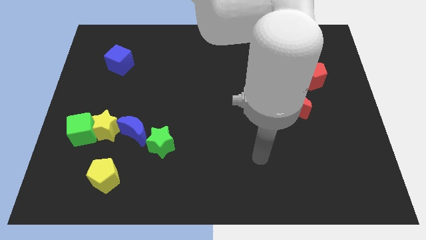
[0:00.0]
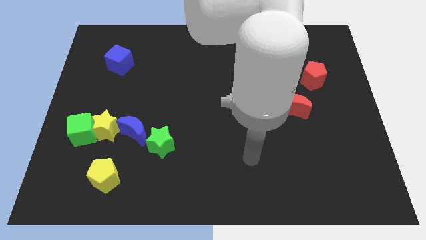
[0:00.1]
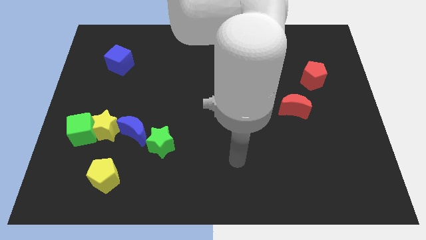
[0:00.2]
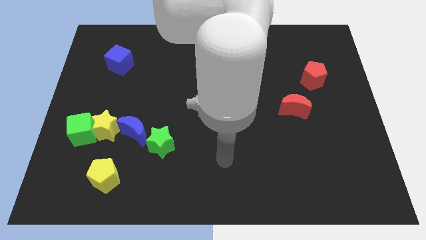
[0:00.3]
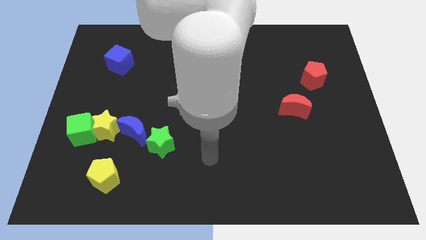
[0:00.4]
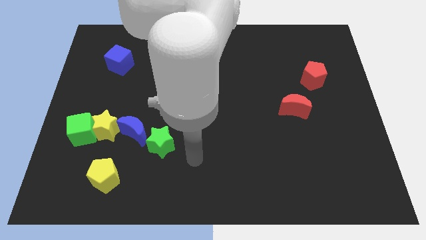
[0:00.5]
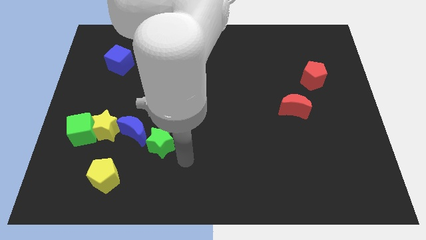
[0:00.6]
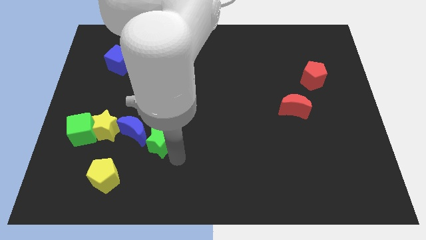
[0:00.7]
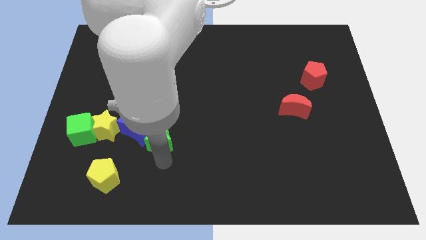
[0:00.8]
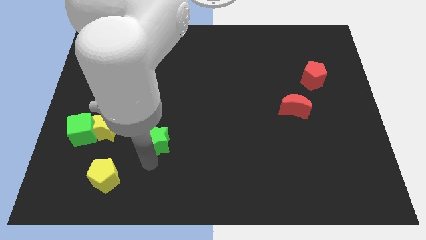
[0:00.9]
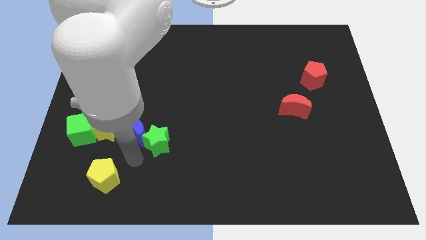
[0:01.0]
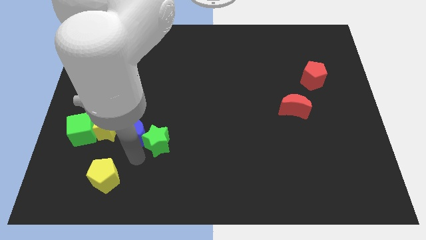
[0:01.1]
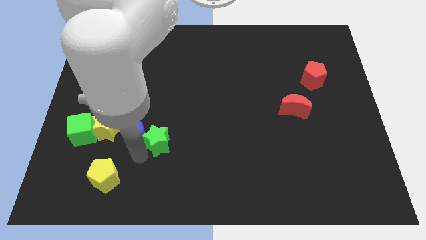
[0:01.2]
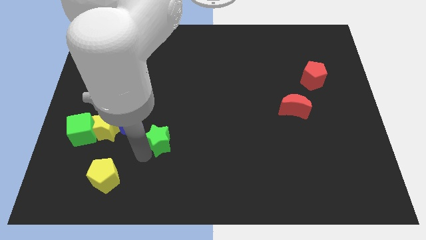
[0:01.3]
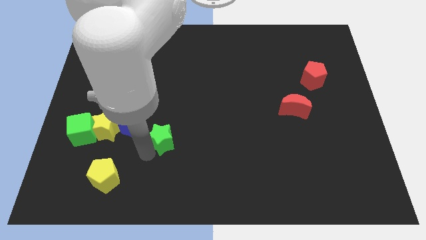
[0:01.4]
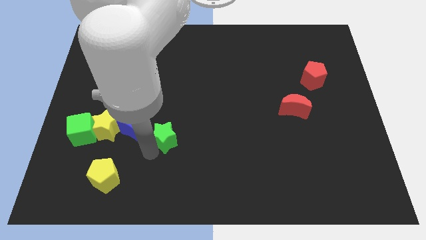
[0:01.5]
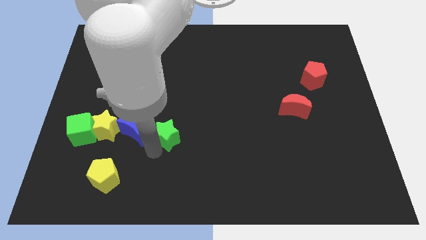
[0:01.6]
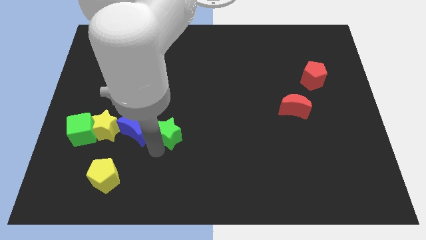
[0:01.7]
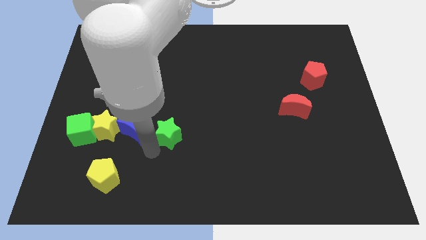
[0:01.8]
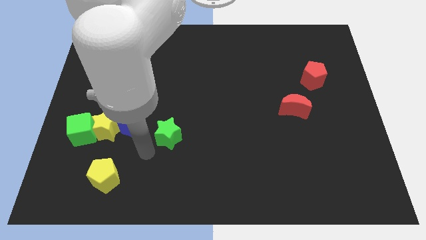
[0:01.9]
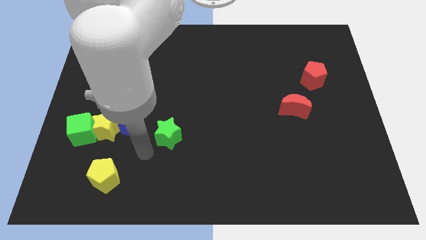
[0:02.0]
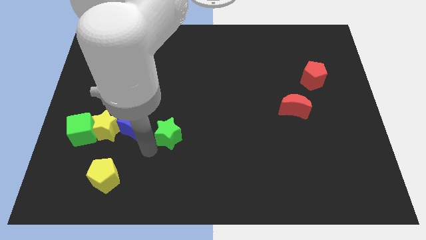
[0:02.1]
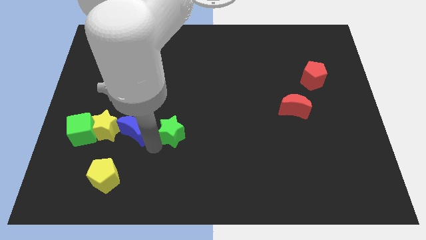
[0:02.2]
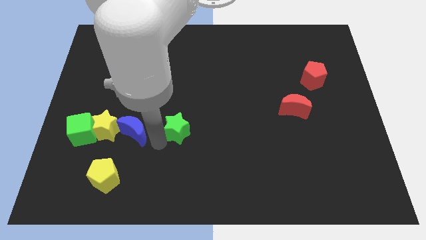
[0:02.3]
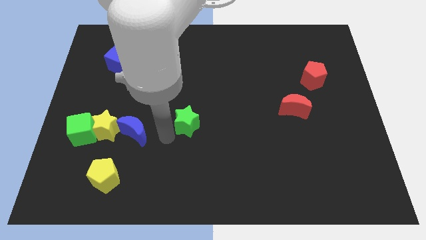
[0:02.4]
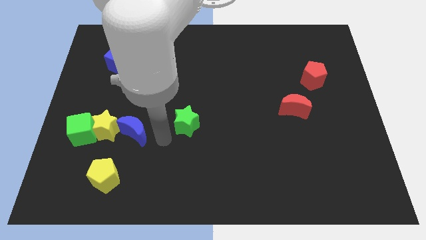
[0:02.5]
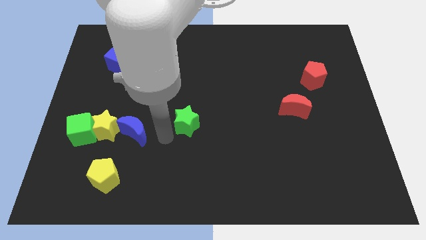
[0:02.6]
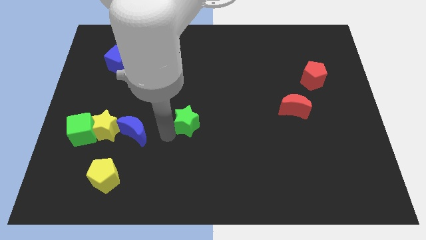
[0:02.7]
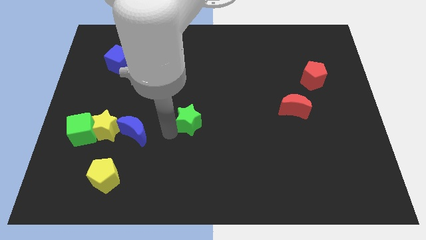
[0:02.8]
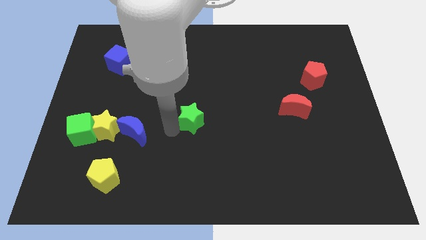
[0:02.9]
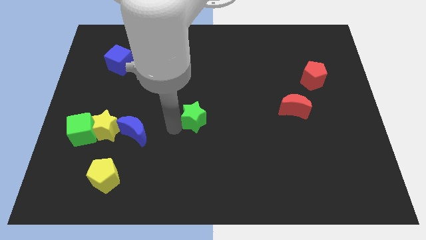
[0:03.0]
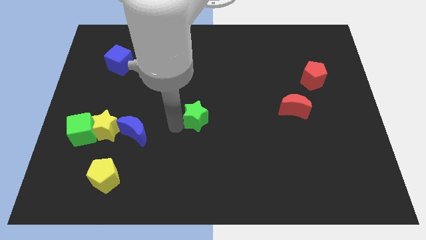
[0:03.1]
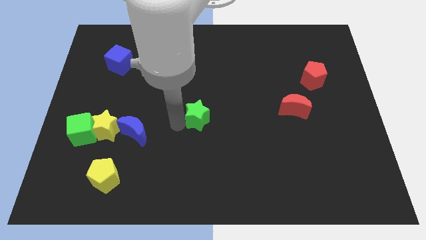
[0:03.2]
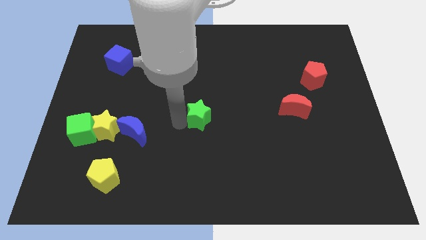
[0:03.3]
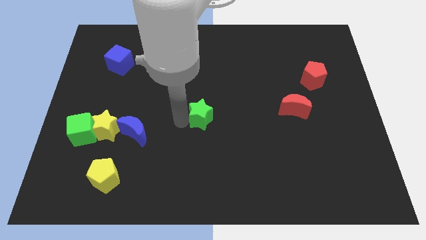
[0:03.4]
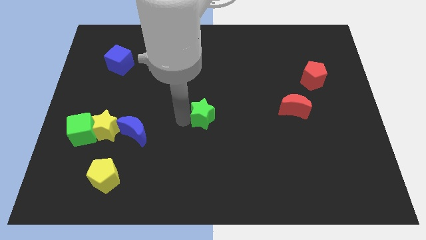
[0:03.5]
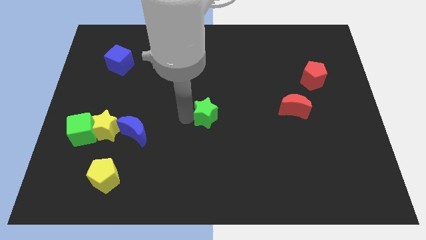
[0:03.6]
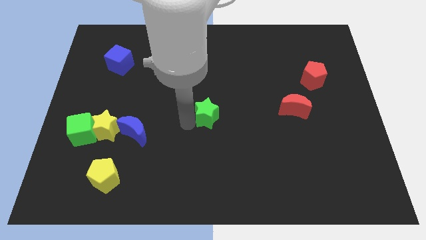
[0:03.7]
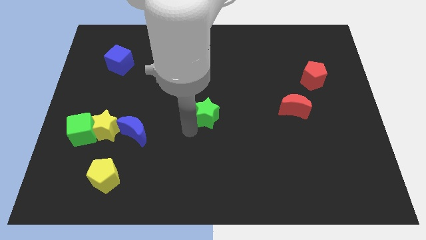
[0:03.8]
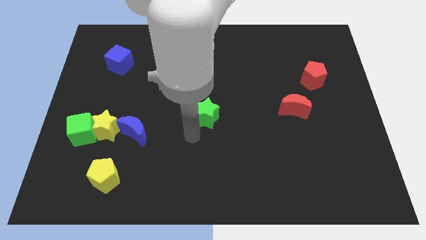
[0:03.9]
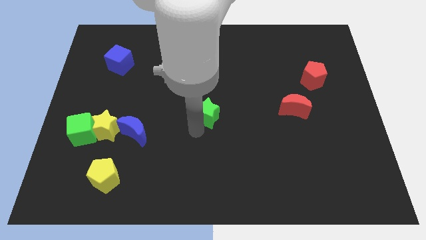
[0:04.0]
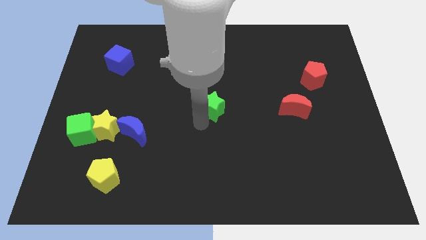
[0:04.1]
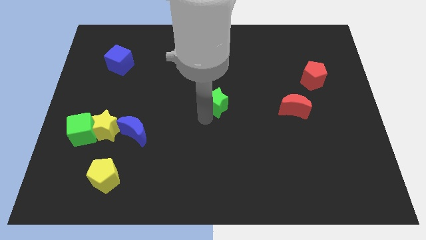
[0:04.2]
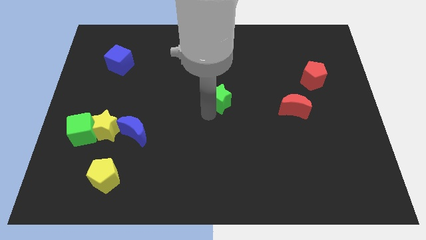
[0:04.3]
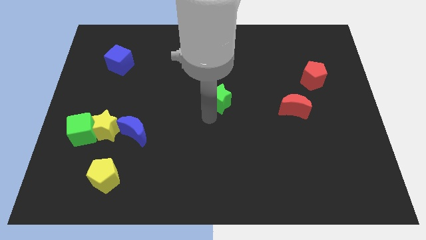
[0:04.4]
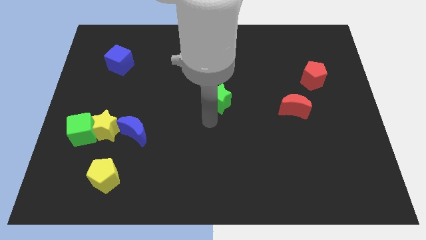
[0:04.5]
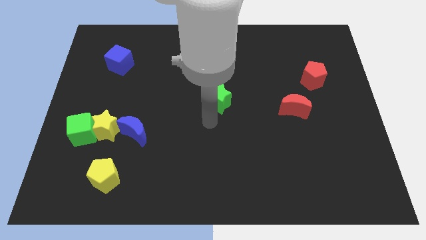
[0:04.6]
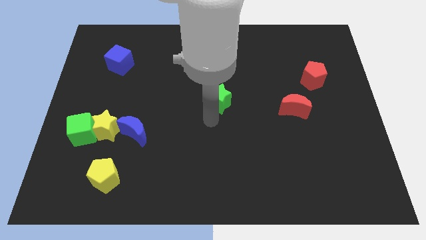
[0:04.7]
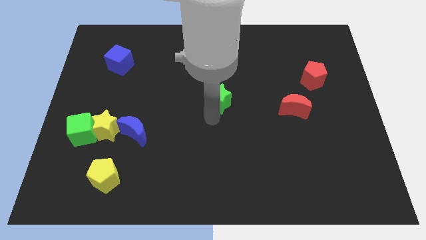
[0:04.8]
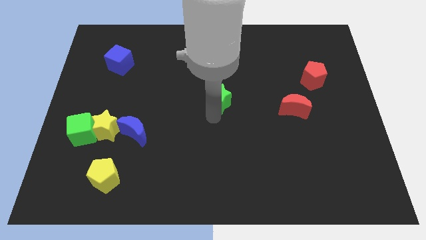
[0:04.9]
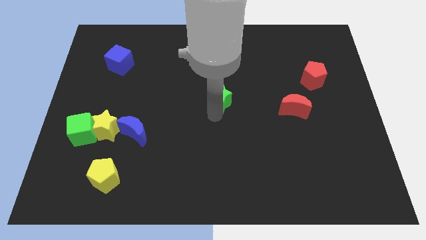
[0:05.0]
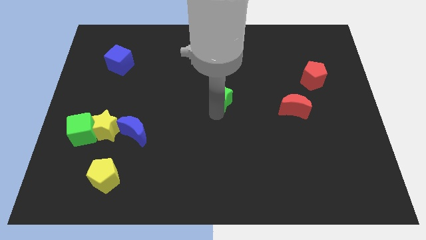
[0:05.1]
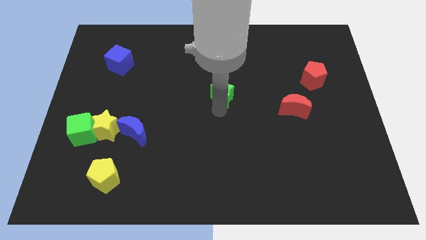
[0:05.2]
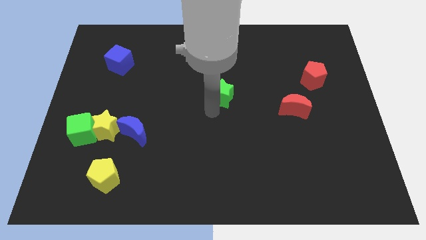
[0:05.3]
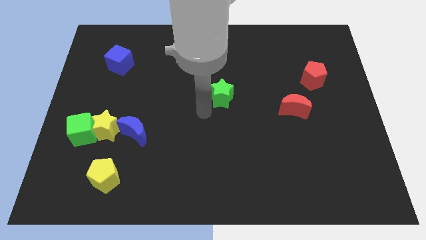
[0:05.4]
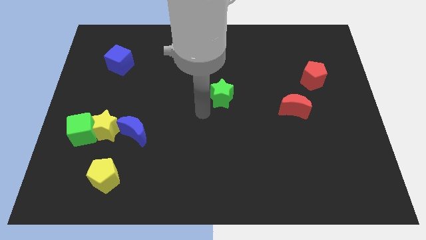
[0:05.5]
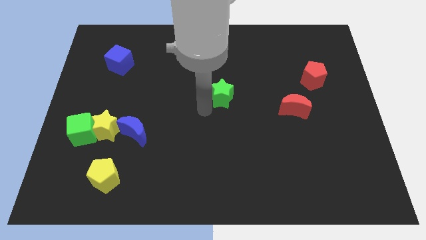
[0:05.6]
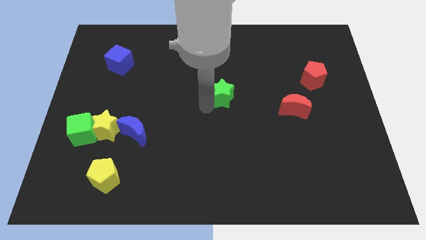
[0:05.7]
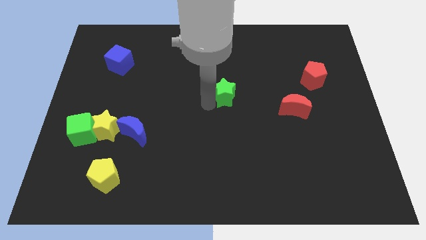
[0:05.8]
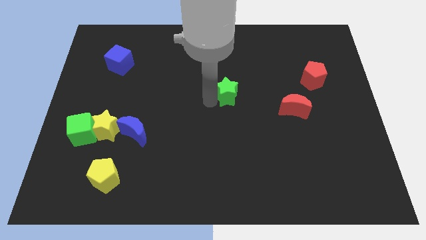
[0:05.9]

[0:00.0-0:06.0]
move the green star up and then right

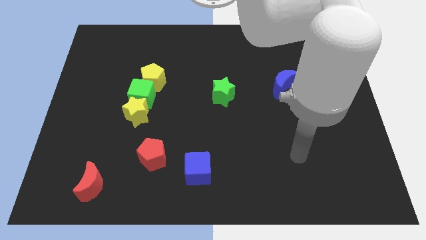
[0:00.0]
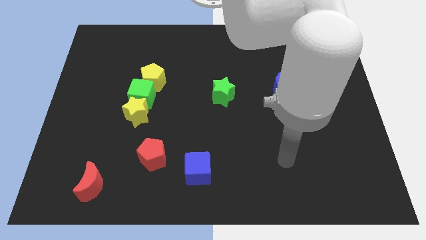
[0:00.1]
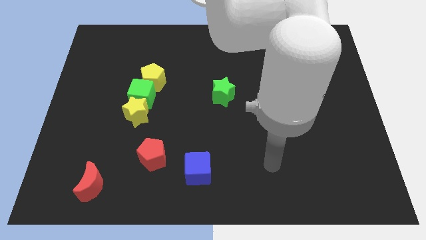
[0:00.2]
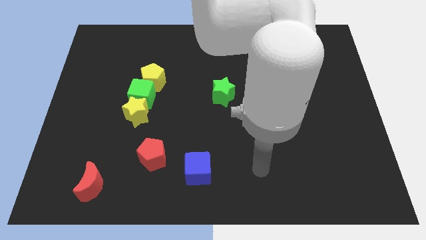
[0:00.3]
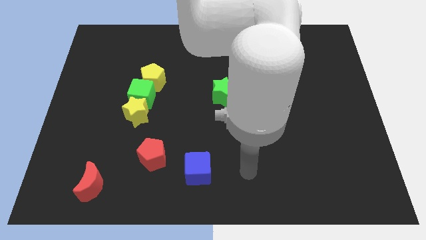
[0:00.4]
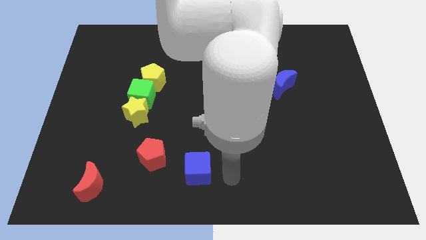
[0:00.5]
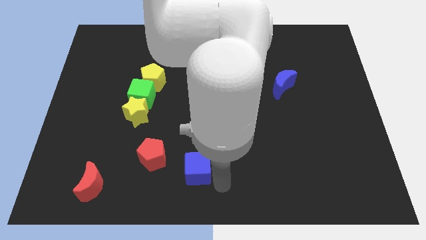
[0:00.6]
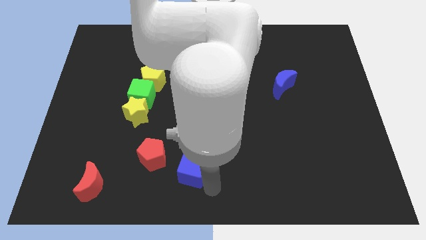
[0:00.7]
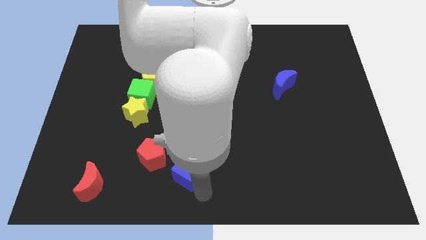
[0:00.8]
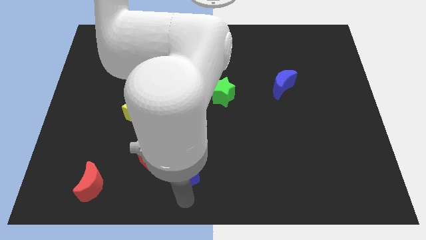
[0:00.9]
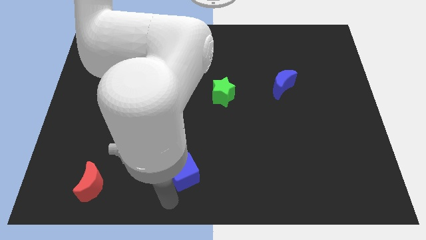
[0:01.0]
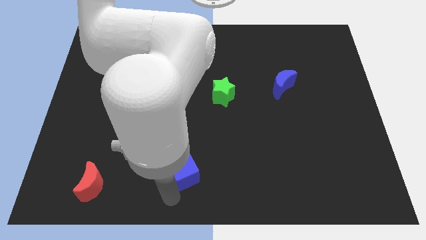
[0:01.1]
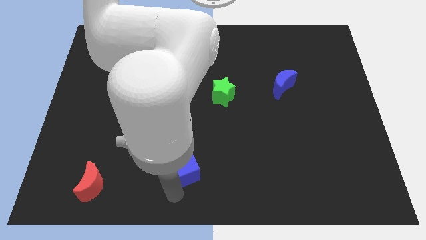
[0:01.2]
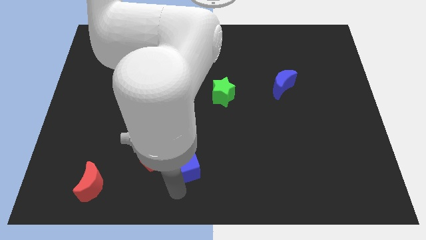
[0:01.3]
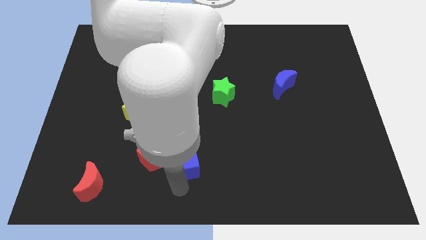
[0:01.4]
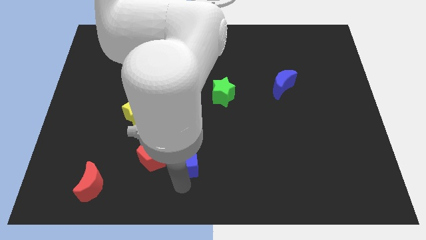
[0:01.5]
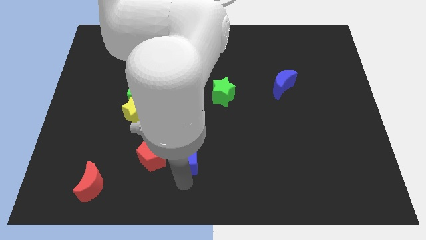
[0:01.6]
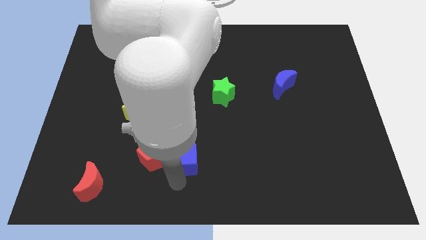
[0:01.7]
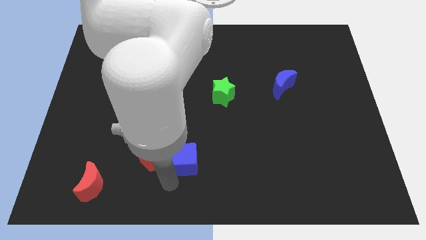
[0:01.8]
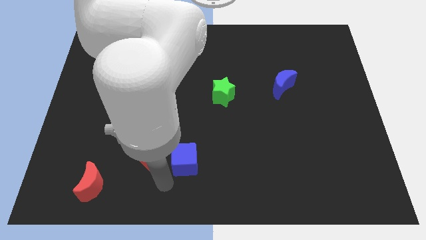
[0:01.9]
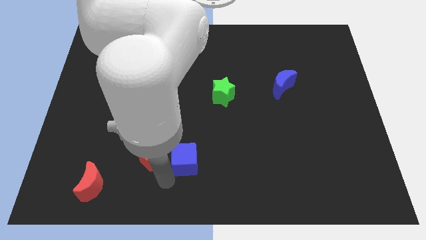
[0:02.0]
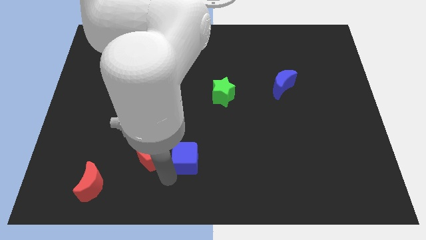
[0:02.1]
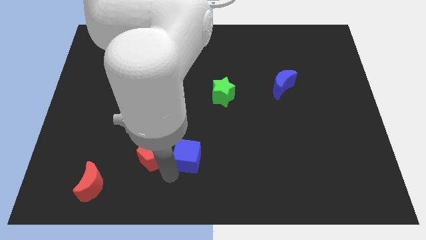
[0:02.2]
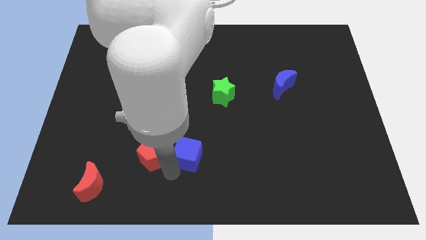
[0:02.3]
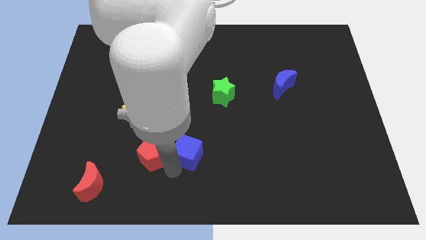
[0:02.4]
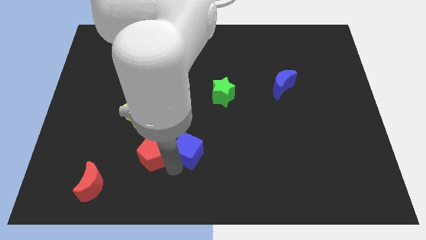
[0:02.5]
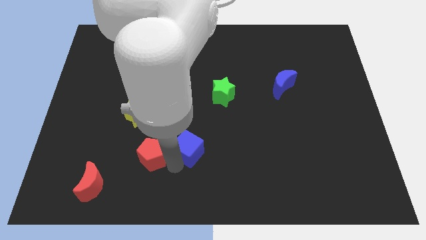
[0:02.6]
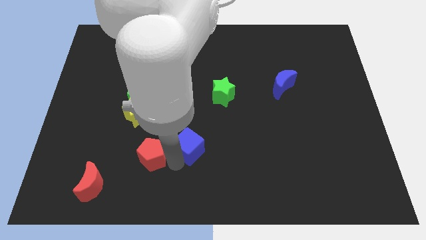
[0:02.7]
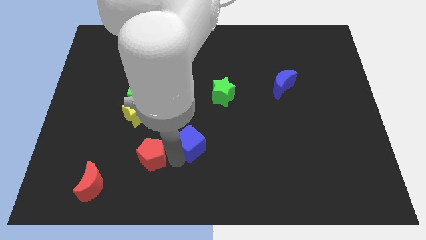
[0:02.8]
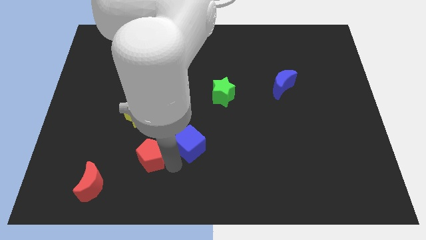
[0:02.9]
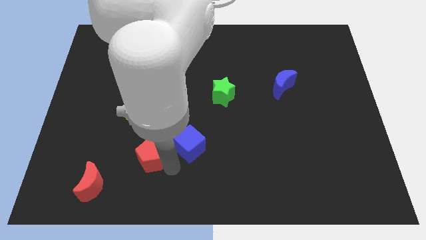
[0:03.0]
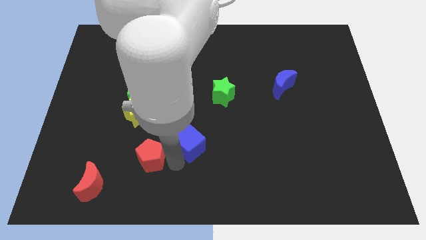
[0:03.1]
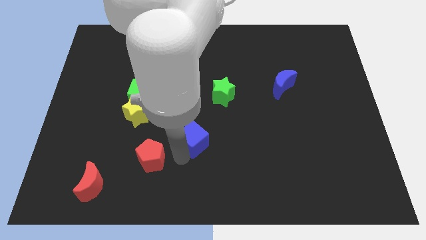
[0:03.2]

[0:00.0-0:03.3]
slide the blue cube slightly up
